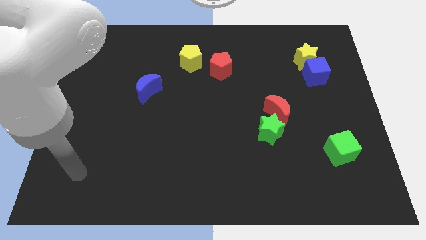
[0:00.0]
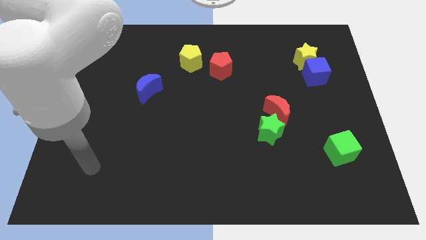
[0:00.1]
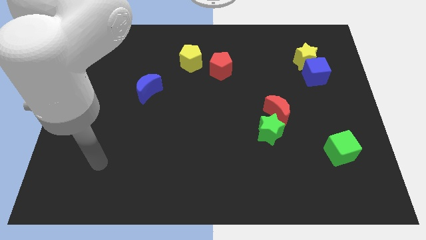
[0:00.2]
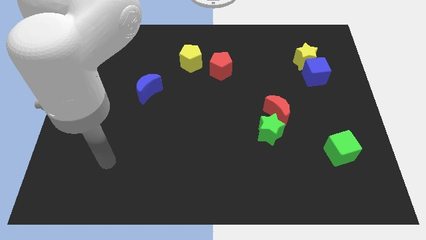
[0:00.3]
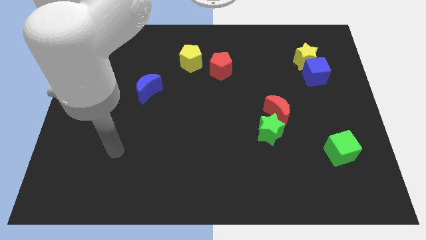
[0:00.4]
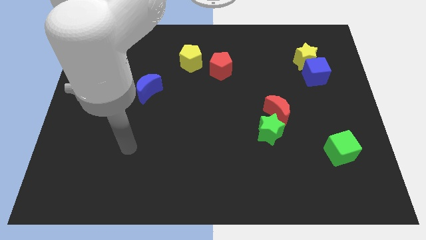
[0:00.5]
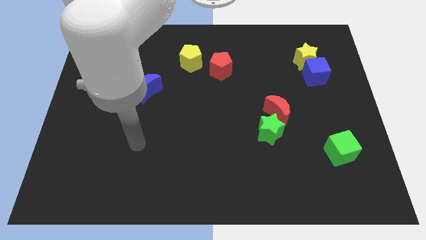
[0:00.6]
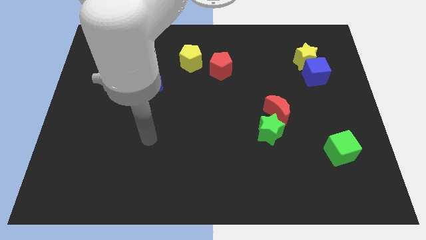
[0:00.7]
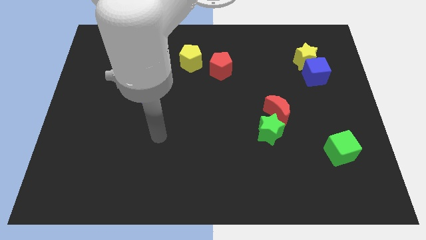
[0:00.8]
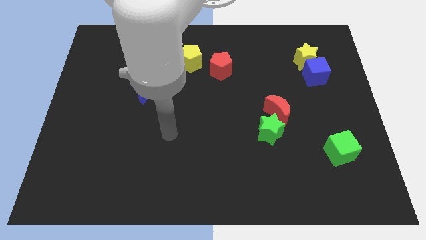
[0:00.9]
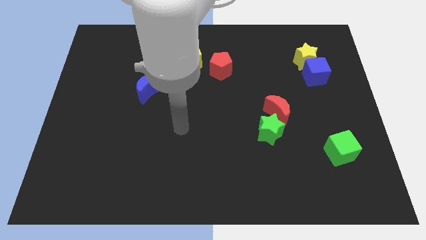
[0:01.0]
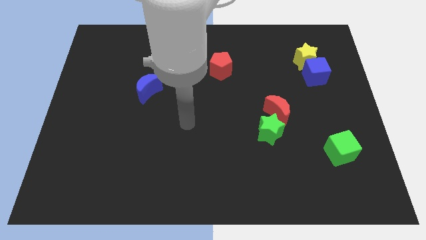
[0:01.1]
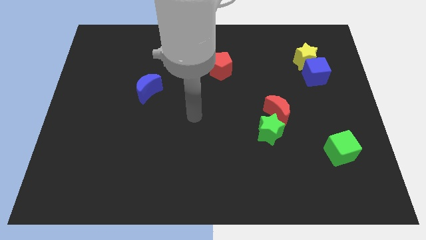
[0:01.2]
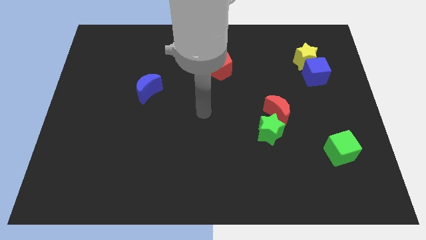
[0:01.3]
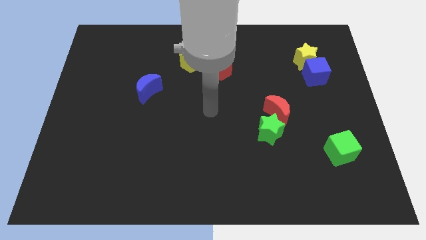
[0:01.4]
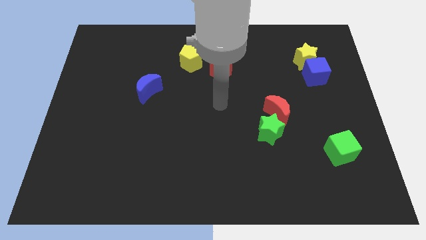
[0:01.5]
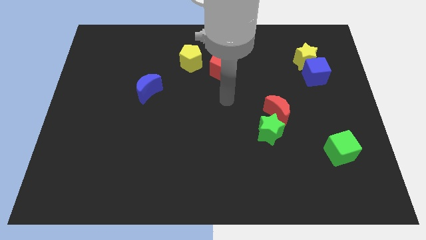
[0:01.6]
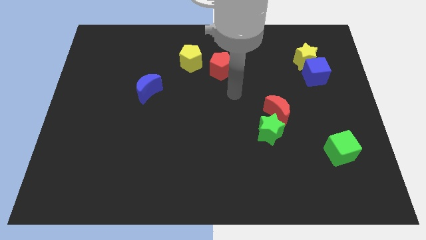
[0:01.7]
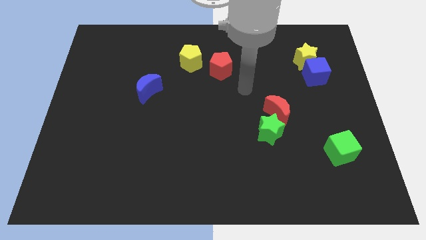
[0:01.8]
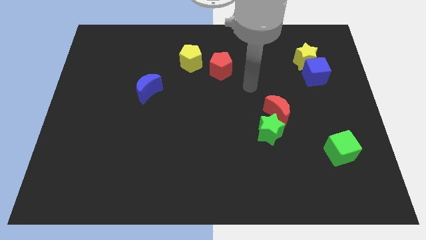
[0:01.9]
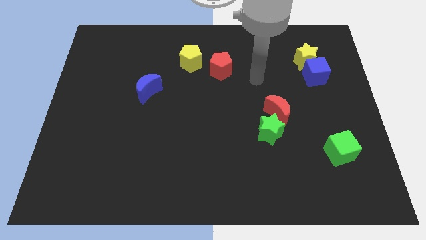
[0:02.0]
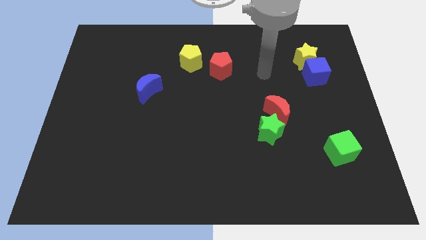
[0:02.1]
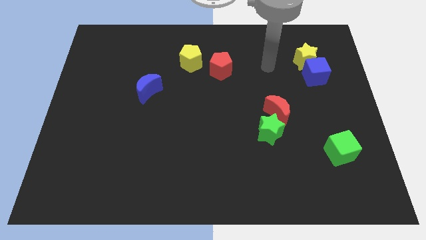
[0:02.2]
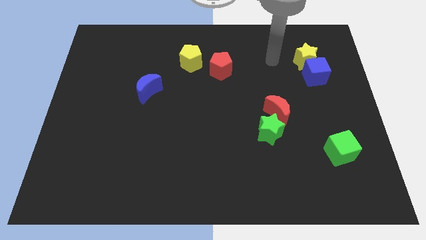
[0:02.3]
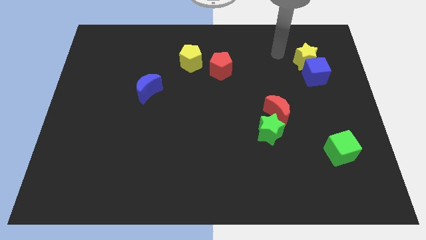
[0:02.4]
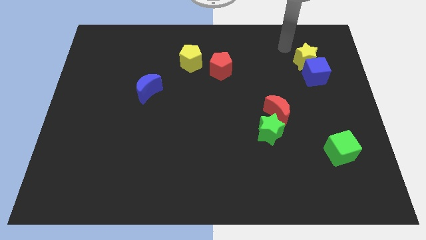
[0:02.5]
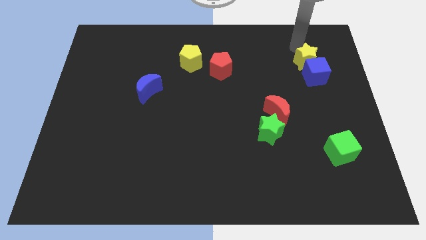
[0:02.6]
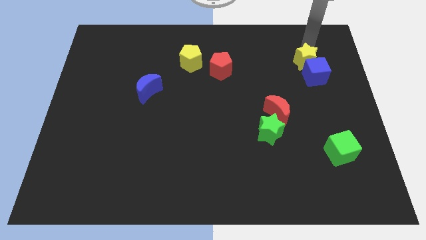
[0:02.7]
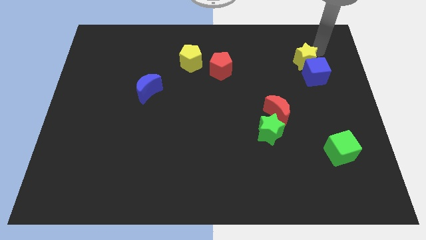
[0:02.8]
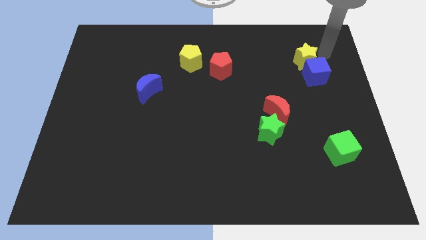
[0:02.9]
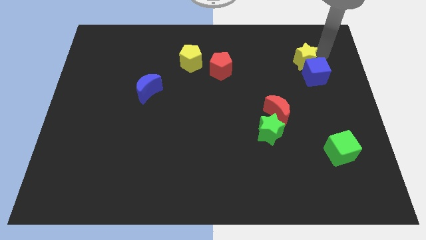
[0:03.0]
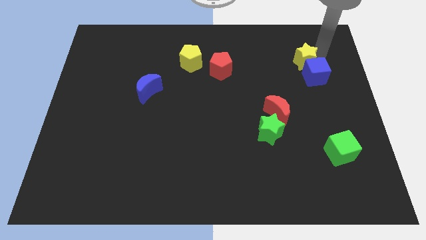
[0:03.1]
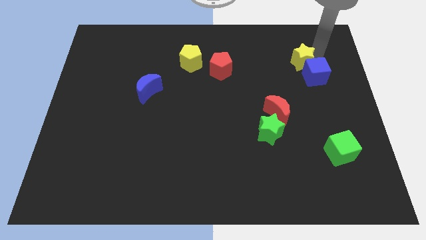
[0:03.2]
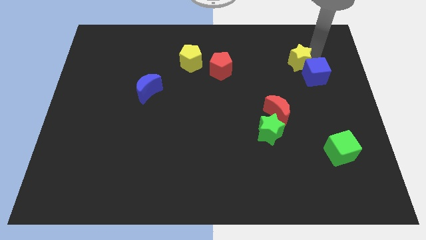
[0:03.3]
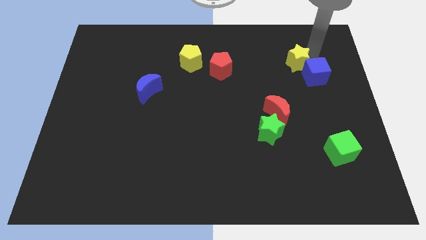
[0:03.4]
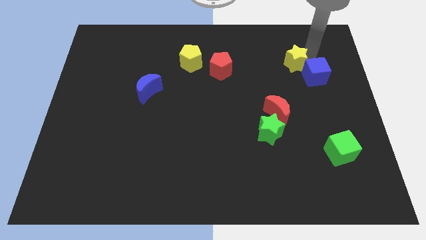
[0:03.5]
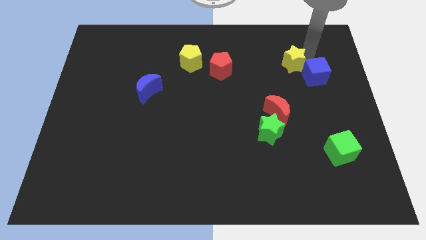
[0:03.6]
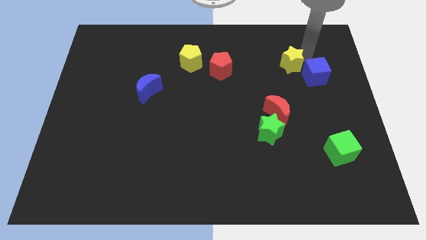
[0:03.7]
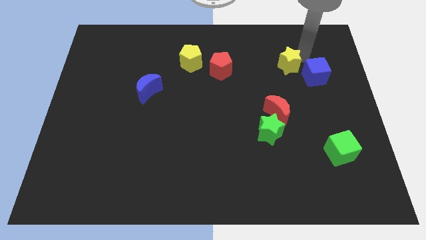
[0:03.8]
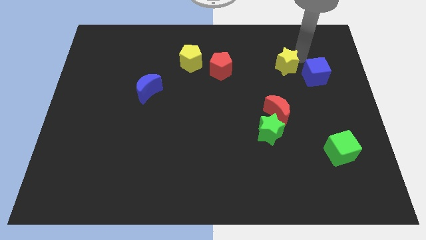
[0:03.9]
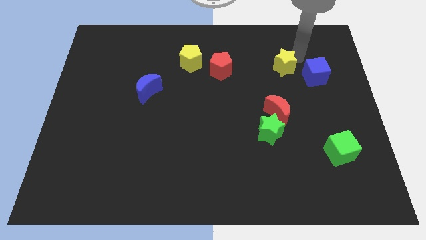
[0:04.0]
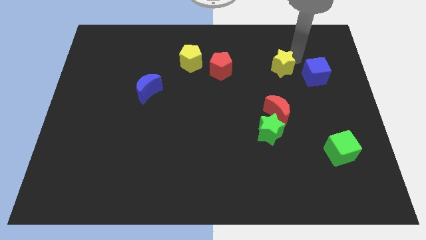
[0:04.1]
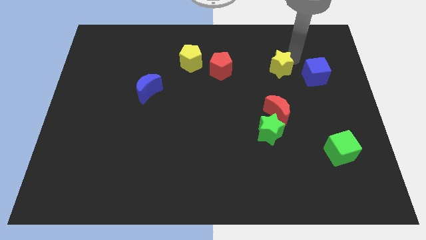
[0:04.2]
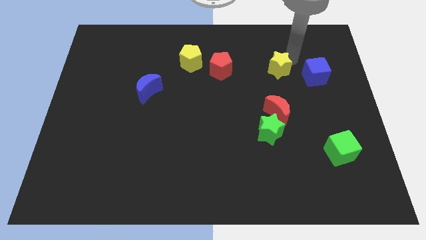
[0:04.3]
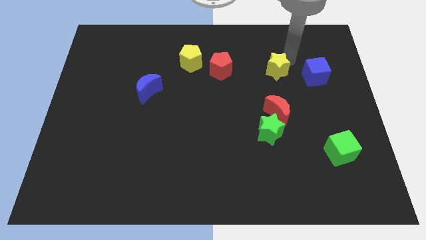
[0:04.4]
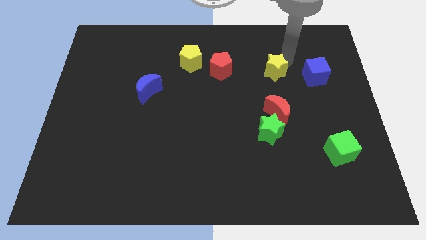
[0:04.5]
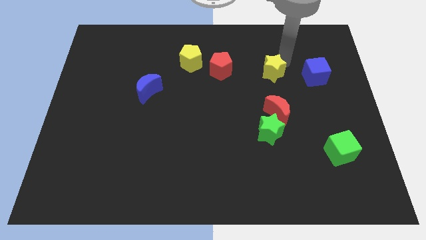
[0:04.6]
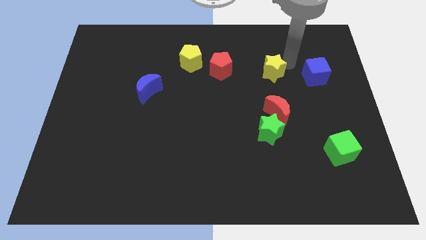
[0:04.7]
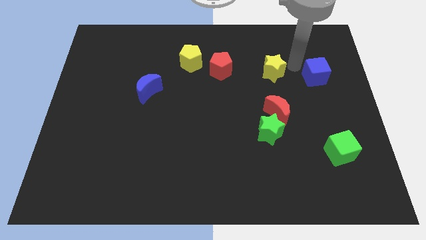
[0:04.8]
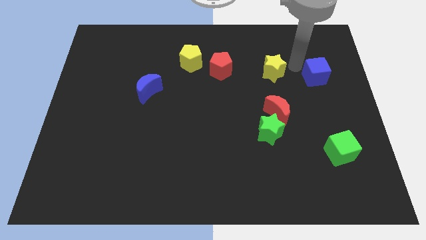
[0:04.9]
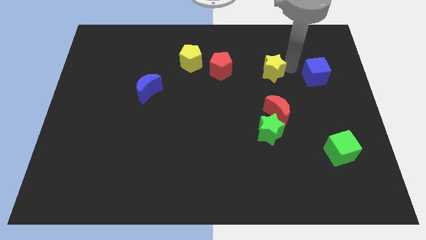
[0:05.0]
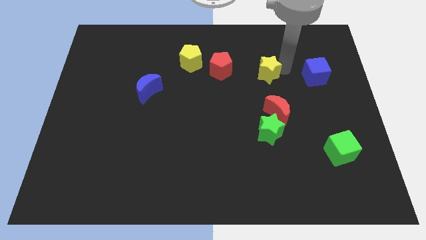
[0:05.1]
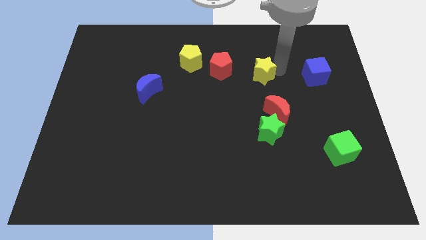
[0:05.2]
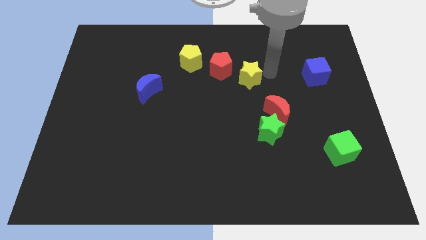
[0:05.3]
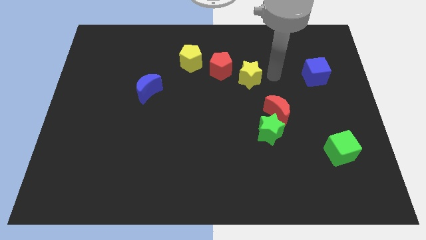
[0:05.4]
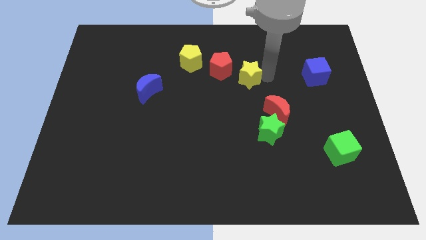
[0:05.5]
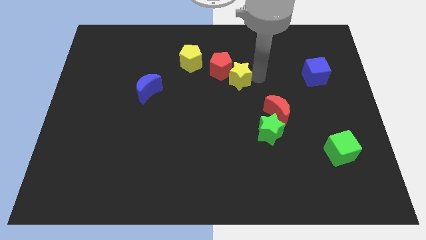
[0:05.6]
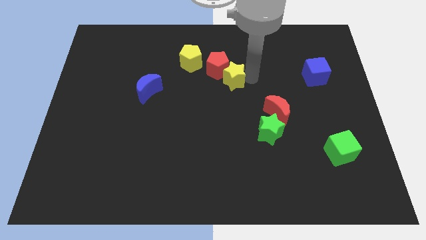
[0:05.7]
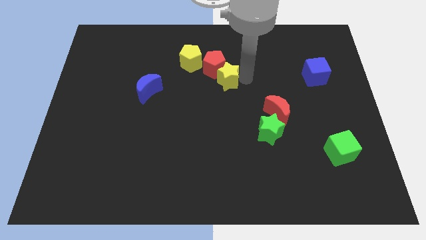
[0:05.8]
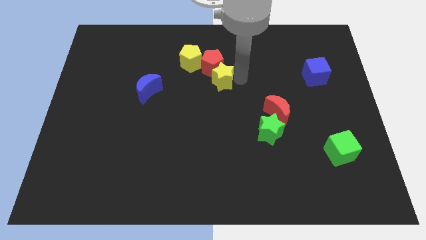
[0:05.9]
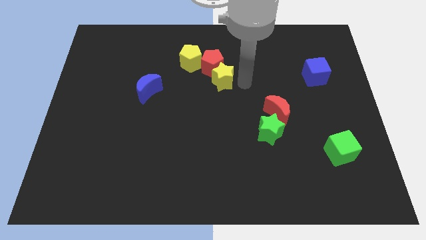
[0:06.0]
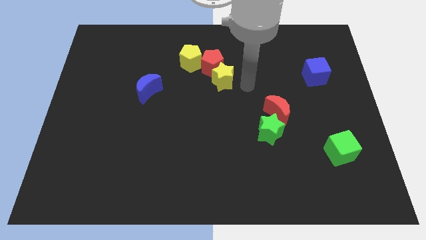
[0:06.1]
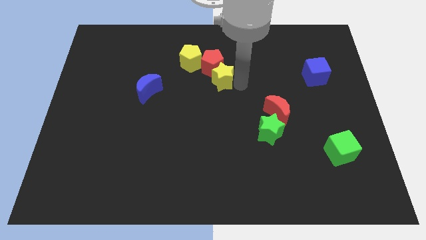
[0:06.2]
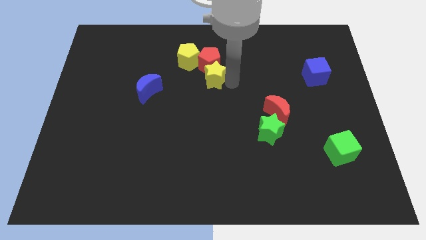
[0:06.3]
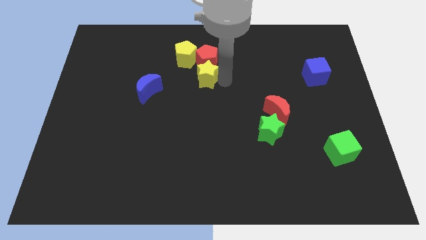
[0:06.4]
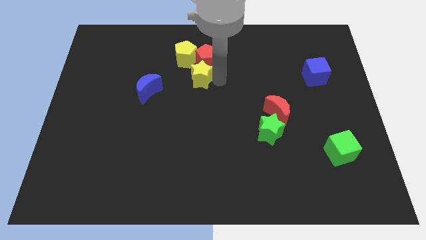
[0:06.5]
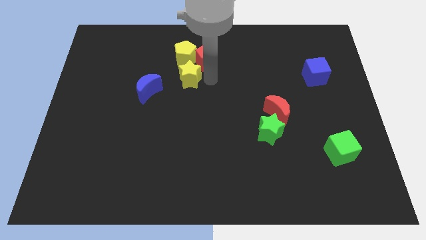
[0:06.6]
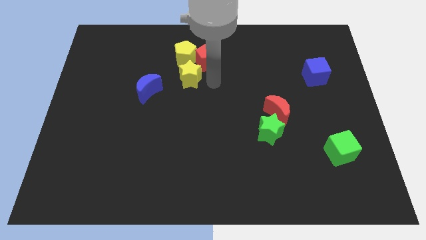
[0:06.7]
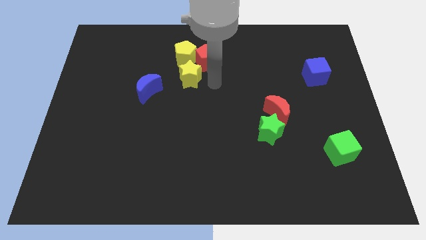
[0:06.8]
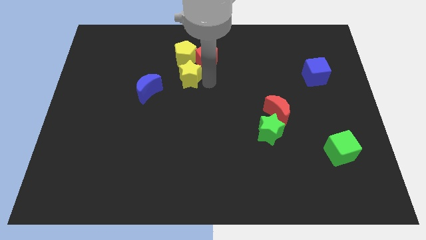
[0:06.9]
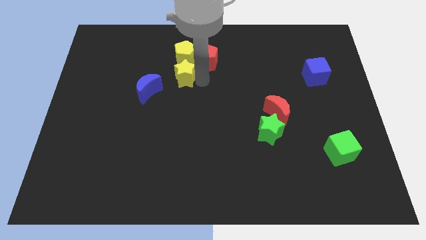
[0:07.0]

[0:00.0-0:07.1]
put the yellow star diagonally down and to the left of the yellow pentagon

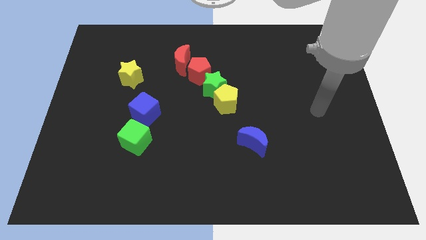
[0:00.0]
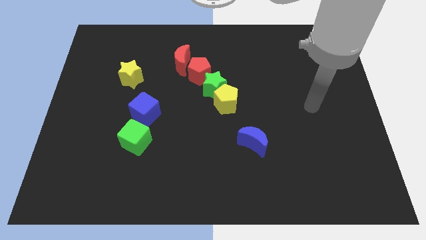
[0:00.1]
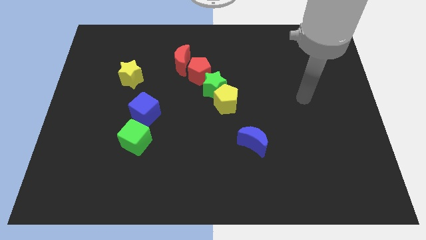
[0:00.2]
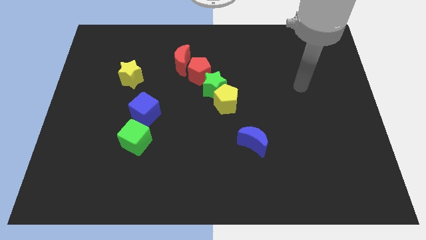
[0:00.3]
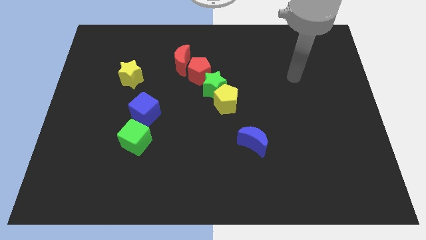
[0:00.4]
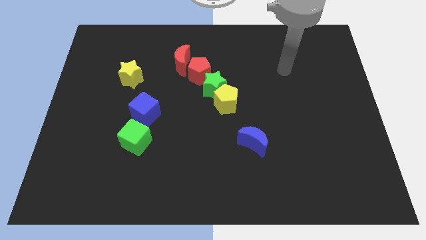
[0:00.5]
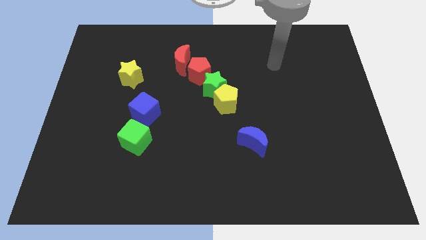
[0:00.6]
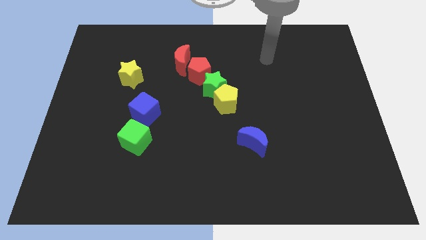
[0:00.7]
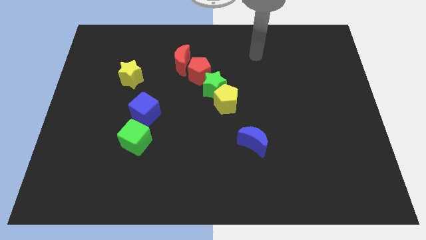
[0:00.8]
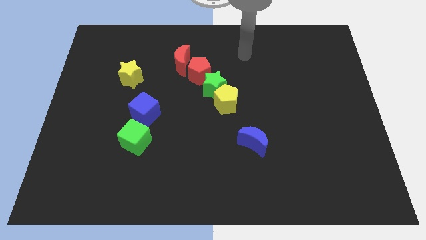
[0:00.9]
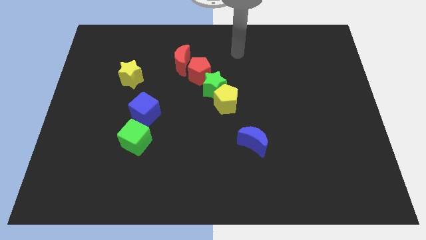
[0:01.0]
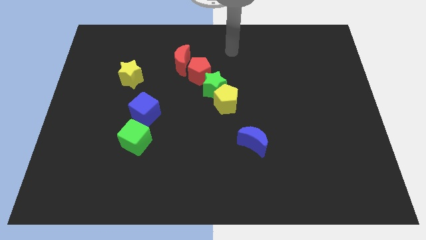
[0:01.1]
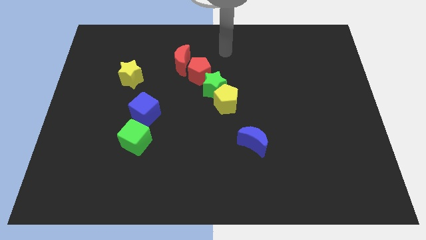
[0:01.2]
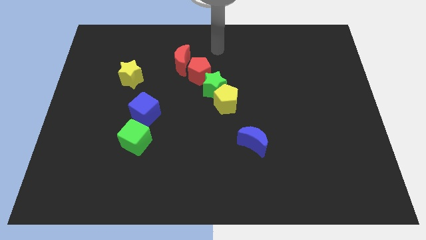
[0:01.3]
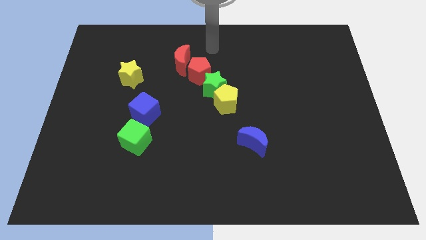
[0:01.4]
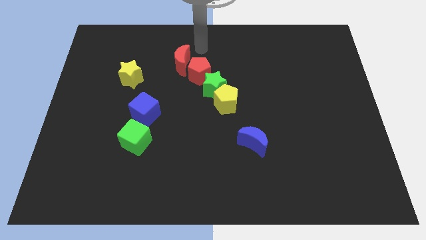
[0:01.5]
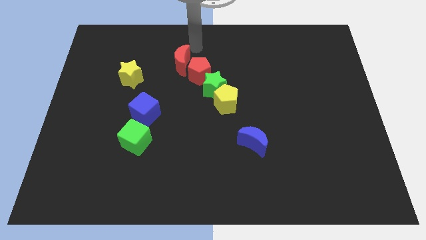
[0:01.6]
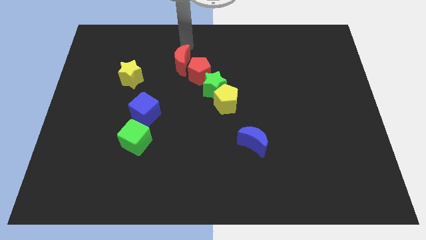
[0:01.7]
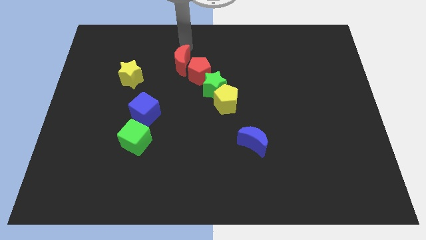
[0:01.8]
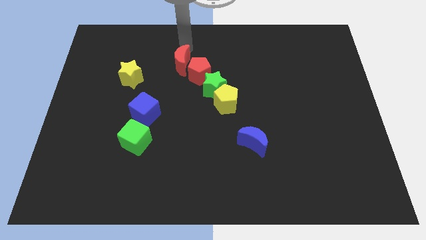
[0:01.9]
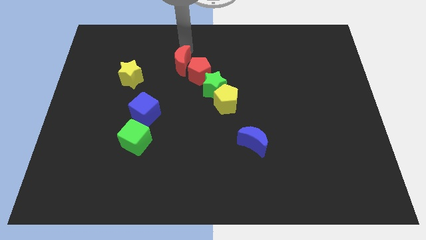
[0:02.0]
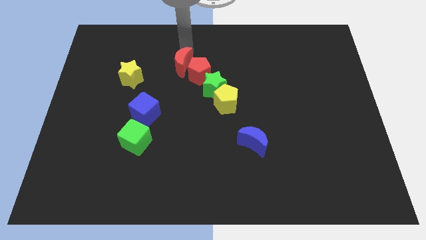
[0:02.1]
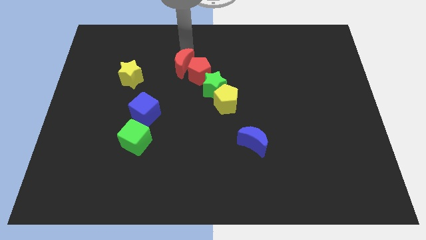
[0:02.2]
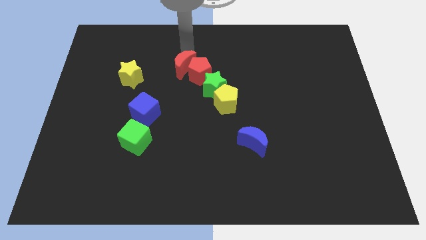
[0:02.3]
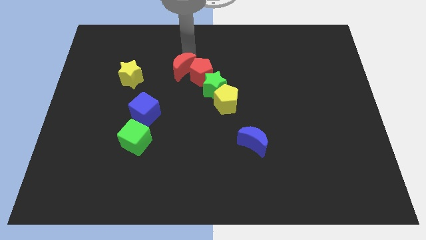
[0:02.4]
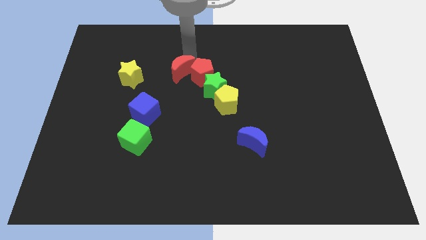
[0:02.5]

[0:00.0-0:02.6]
push the red moon to the bottom left side of the red pentagon
